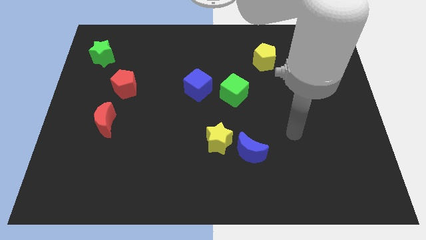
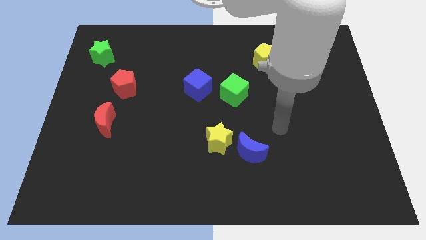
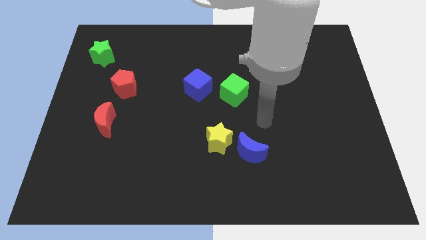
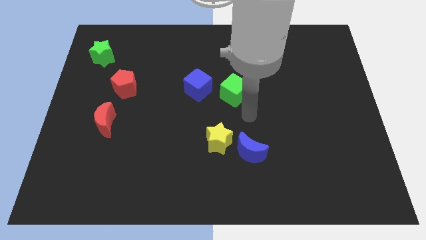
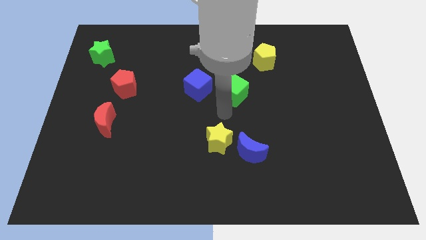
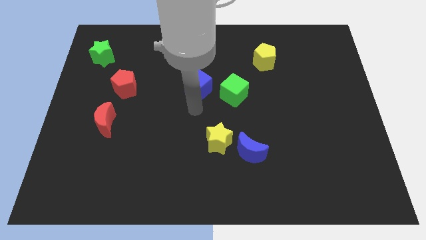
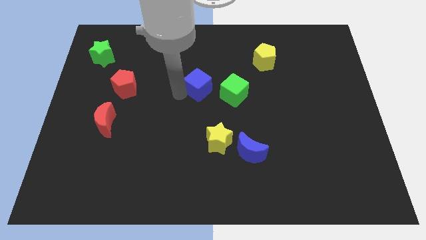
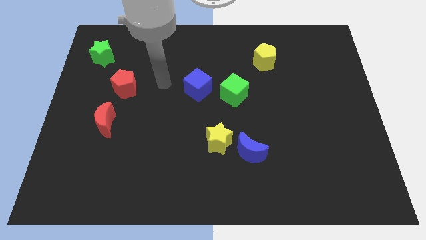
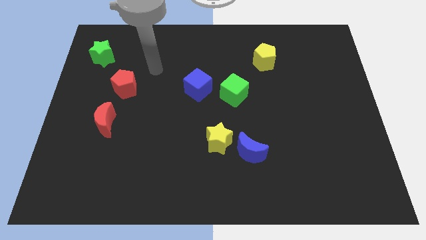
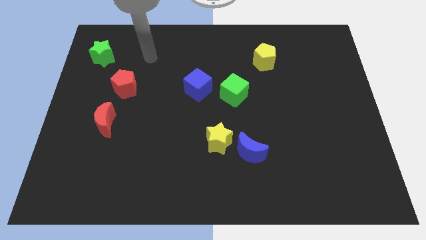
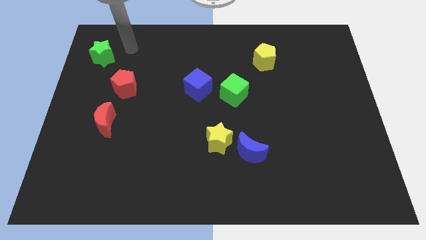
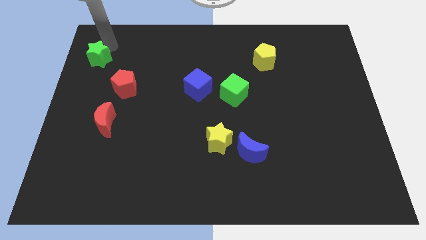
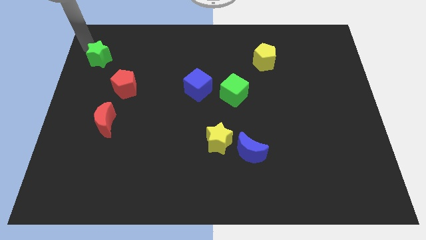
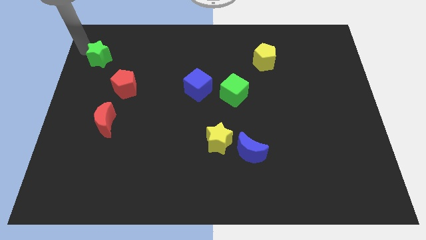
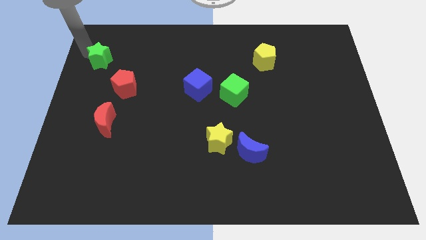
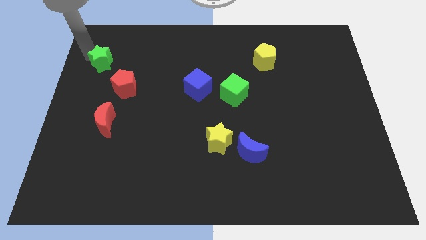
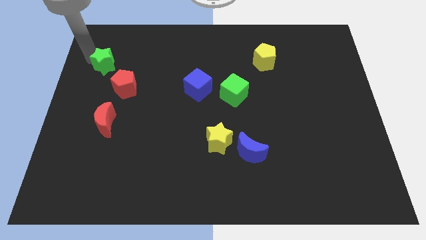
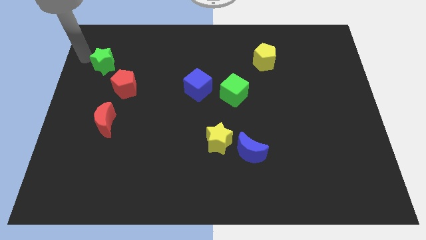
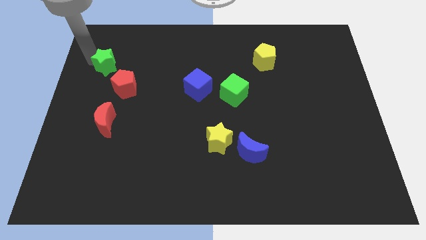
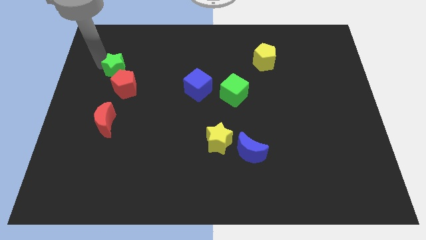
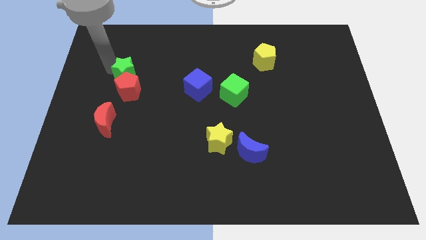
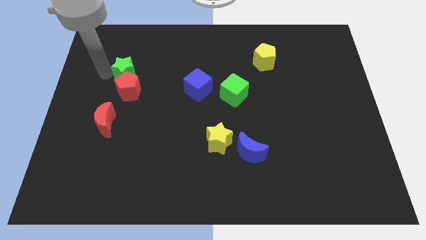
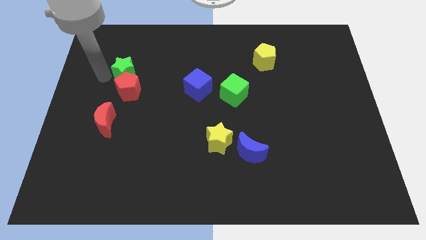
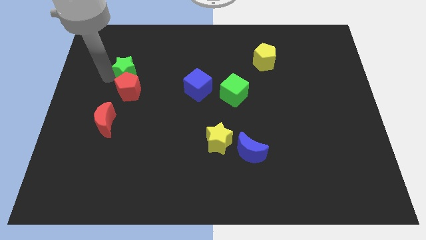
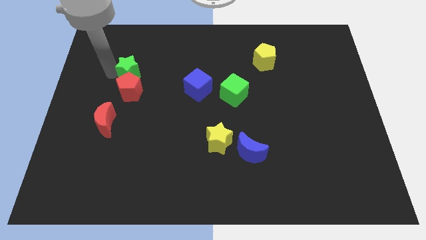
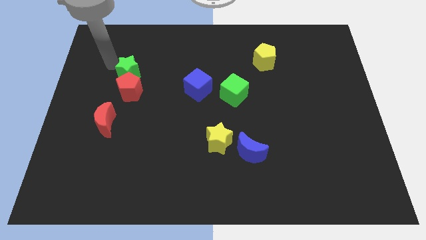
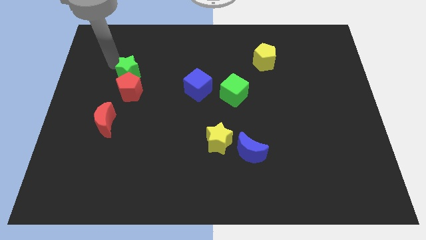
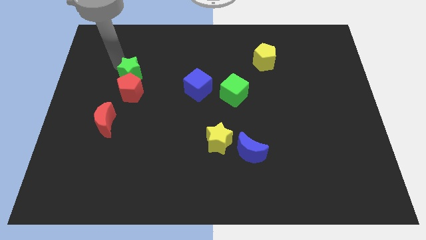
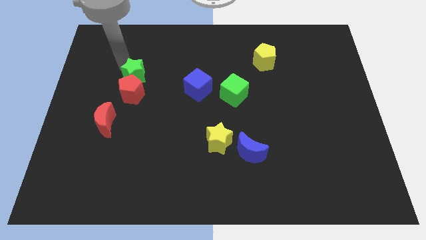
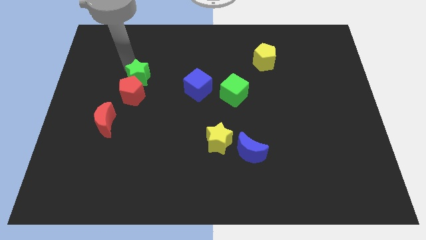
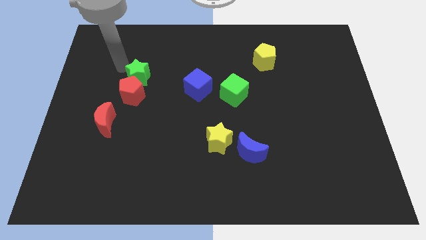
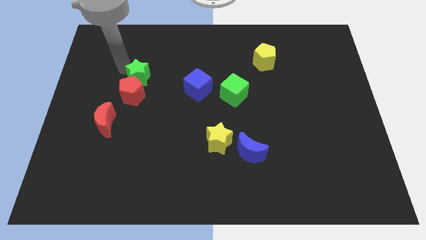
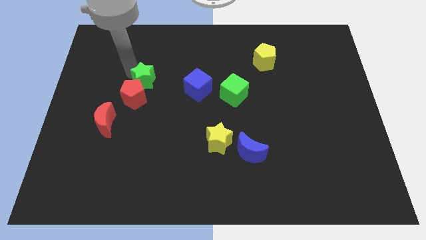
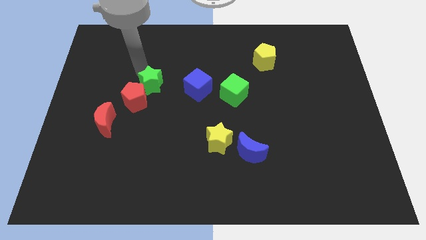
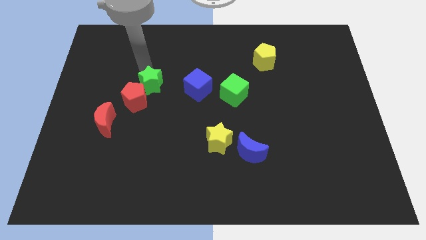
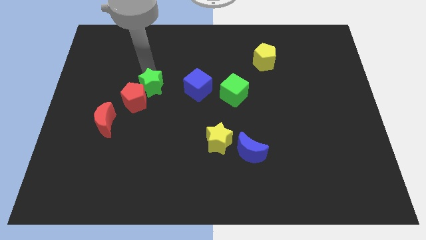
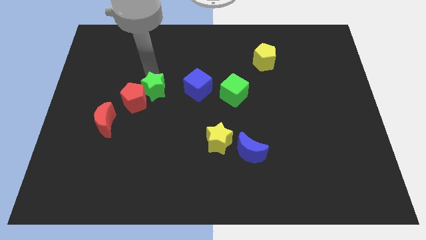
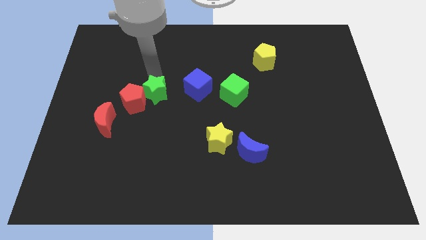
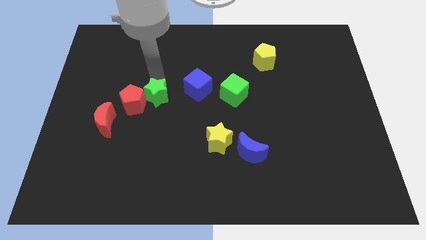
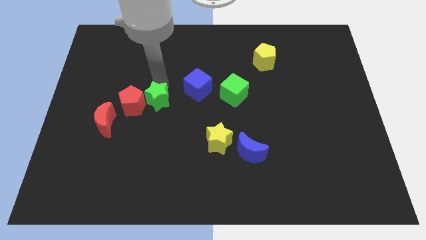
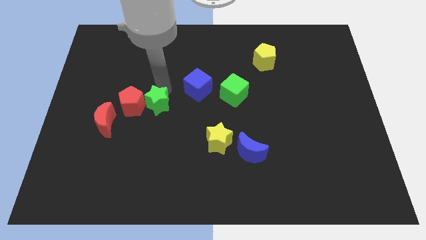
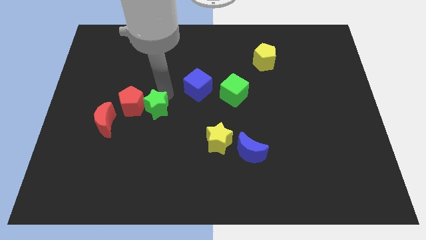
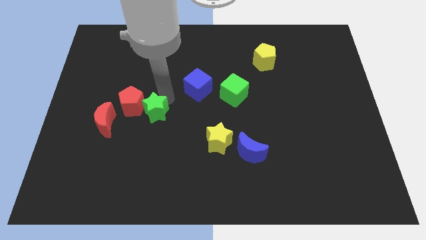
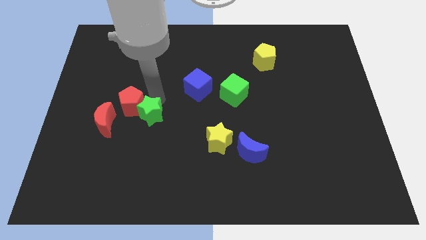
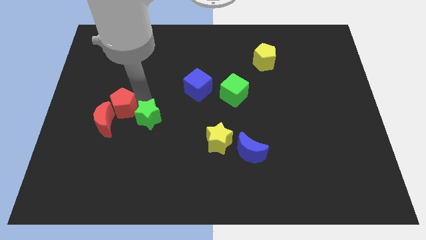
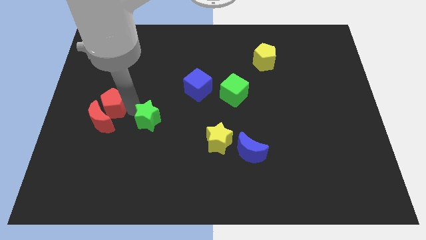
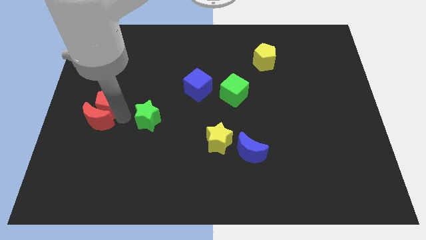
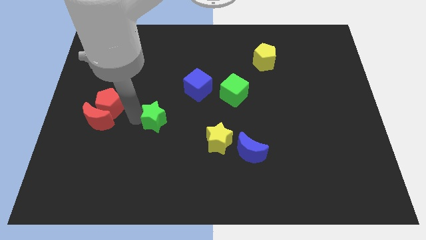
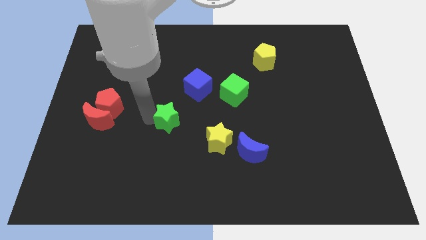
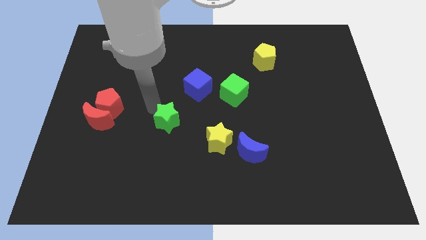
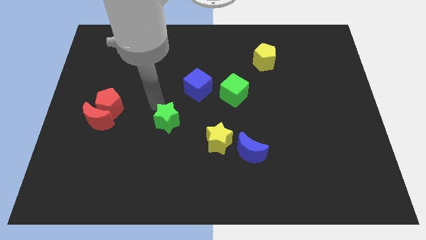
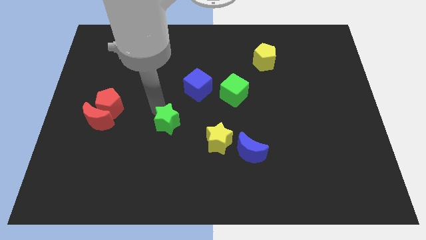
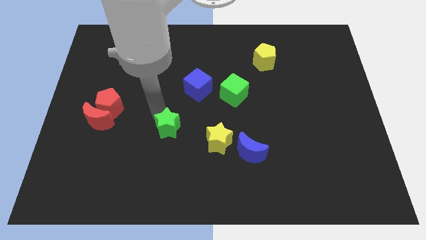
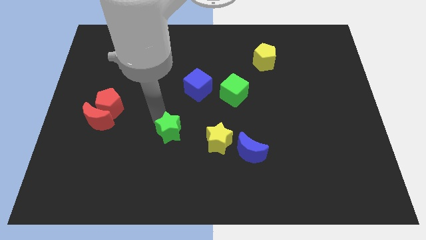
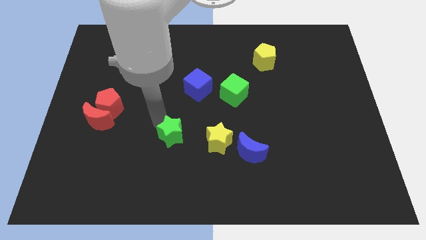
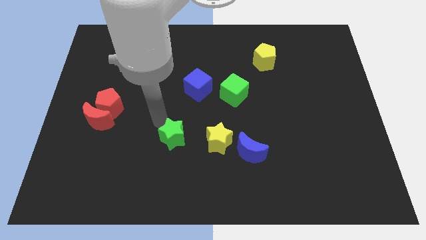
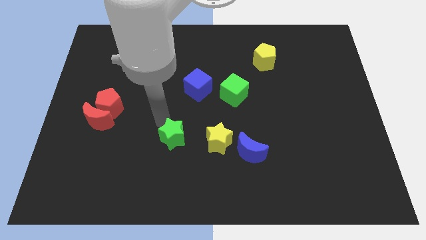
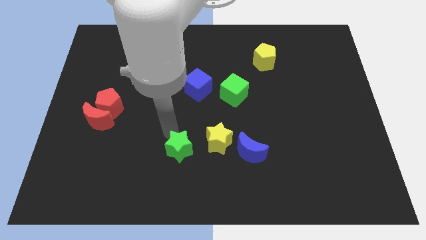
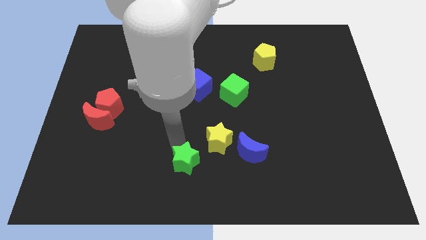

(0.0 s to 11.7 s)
push the green star to the bottom
